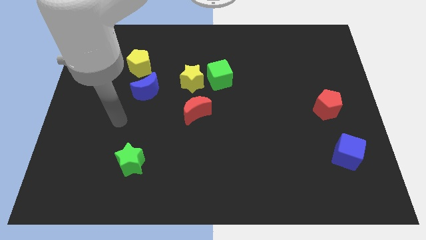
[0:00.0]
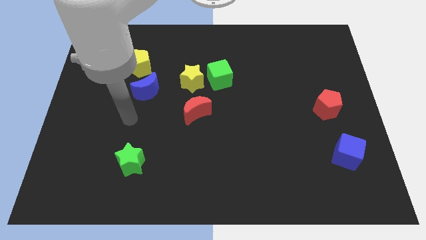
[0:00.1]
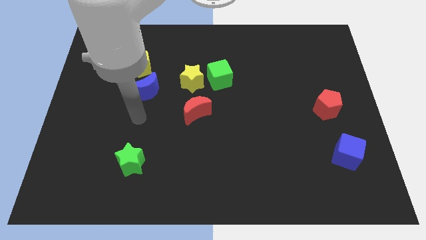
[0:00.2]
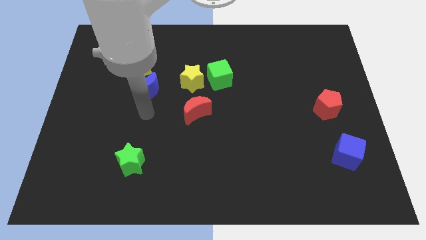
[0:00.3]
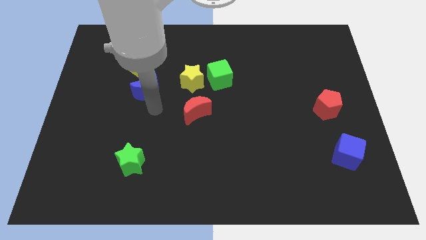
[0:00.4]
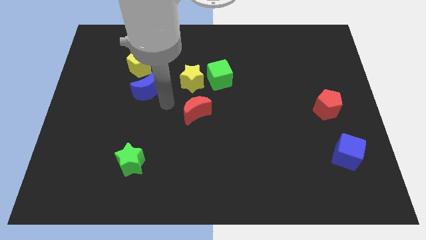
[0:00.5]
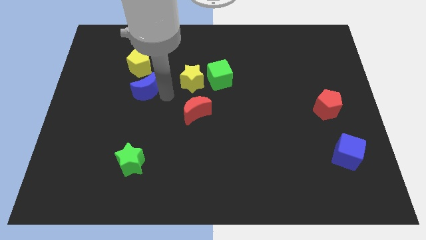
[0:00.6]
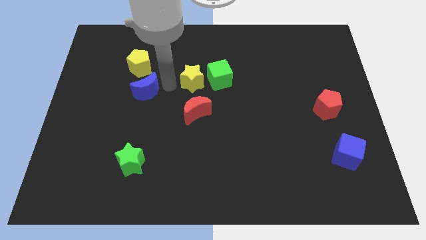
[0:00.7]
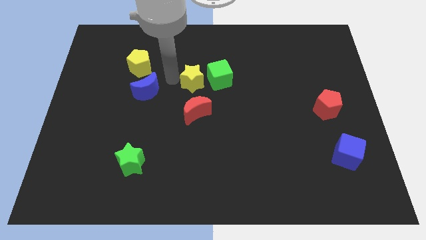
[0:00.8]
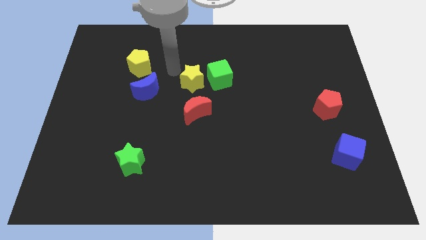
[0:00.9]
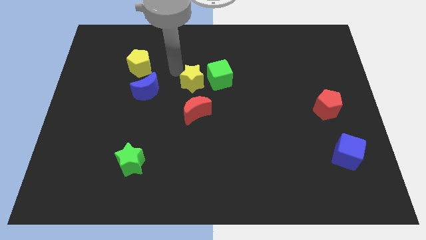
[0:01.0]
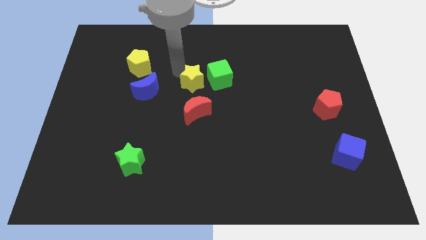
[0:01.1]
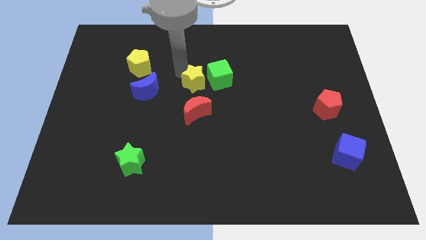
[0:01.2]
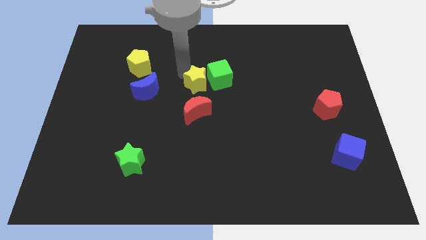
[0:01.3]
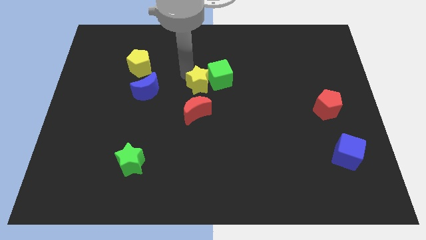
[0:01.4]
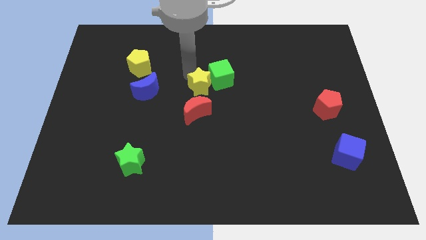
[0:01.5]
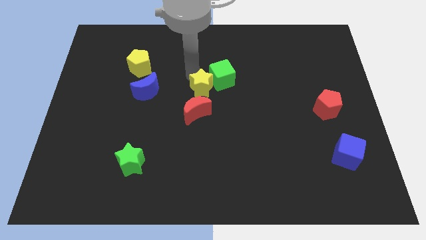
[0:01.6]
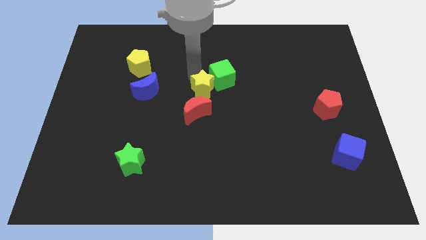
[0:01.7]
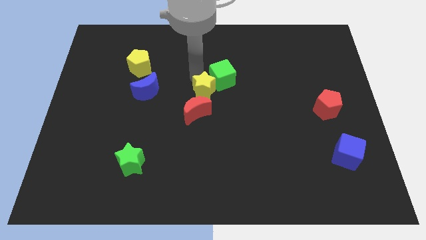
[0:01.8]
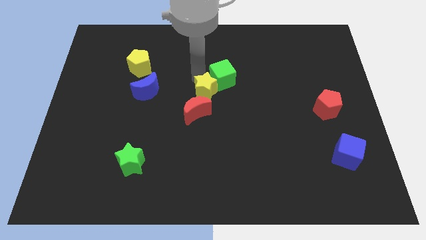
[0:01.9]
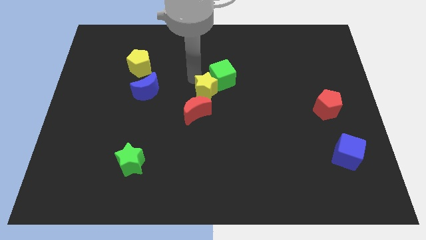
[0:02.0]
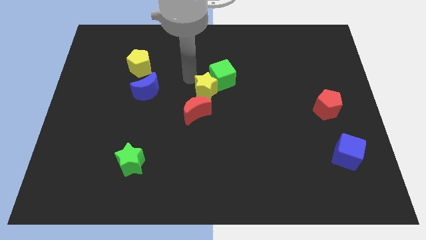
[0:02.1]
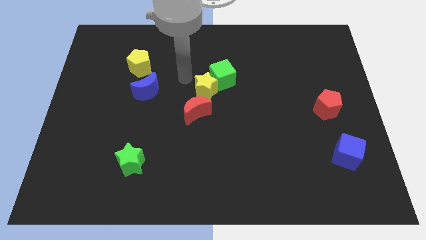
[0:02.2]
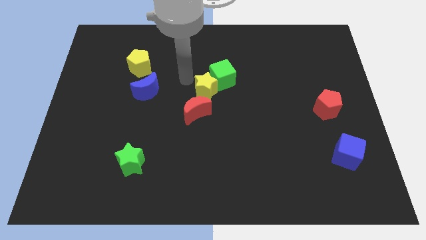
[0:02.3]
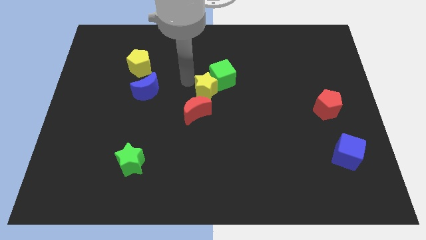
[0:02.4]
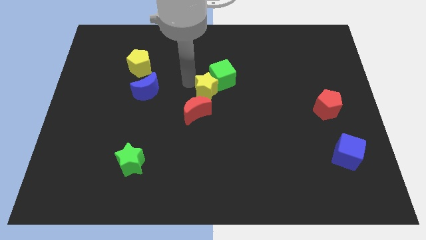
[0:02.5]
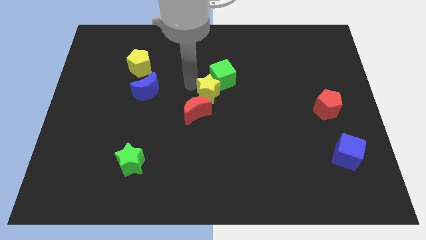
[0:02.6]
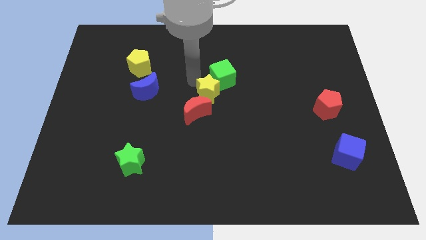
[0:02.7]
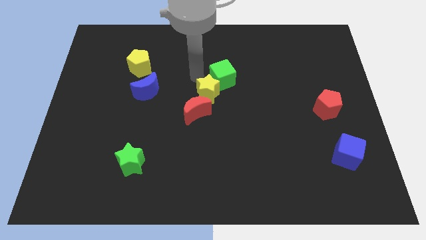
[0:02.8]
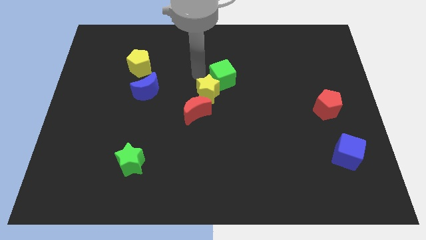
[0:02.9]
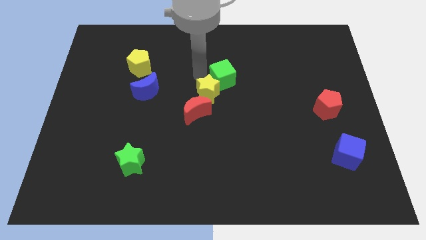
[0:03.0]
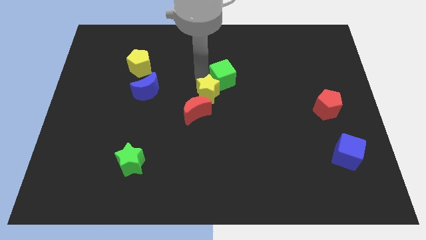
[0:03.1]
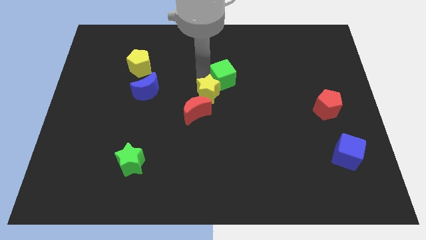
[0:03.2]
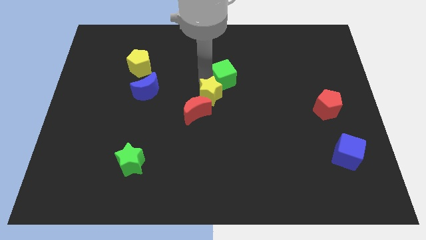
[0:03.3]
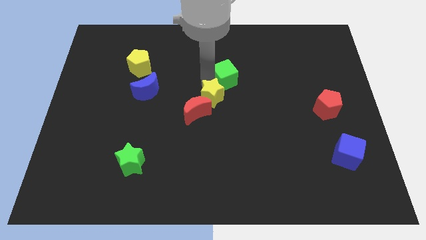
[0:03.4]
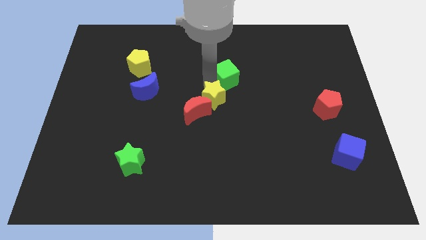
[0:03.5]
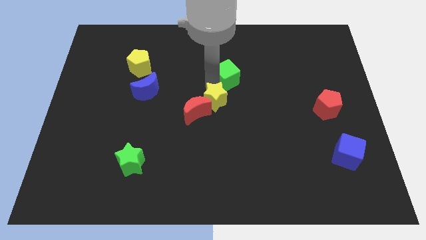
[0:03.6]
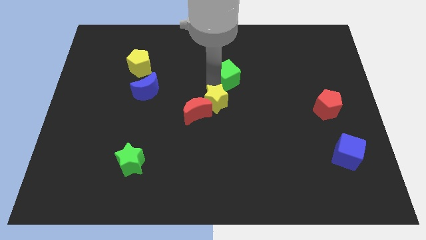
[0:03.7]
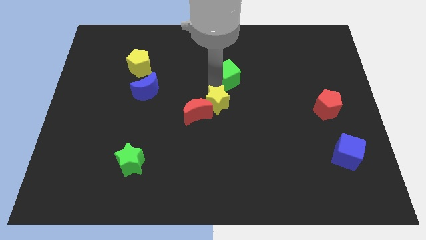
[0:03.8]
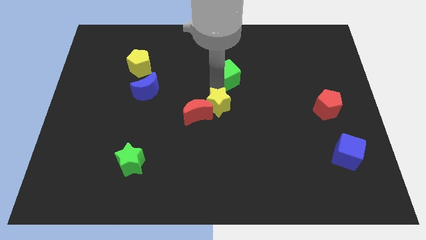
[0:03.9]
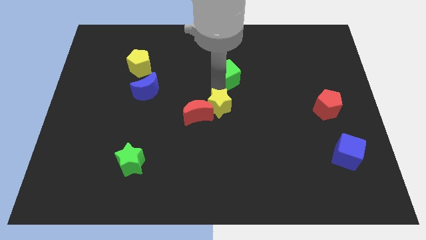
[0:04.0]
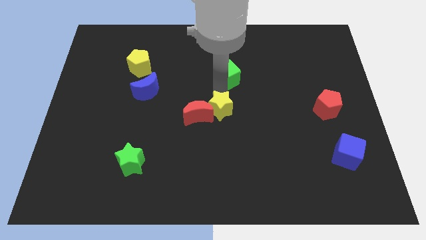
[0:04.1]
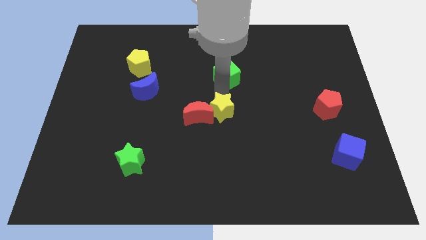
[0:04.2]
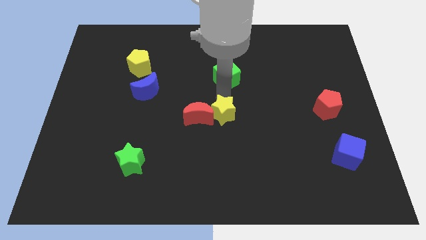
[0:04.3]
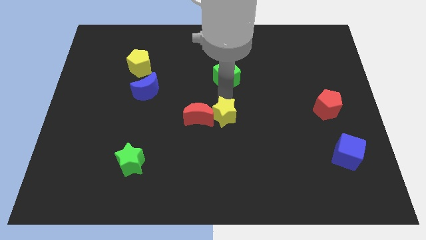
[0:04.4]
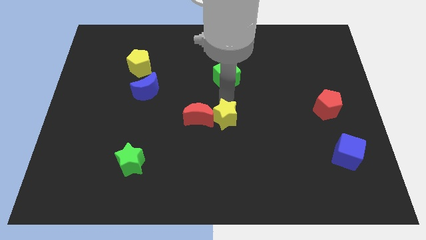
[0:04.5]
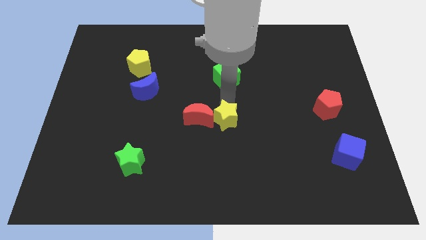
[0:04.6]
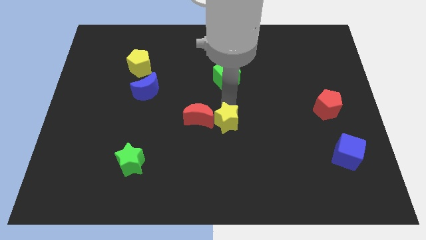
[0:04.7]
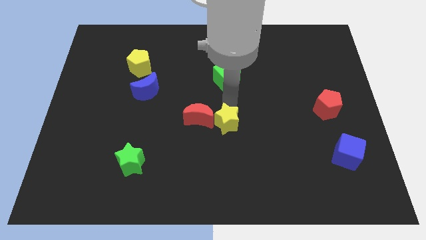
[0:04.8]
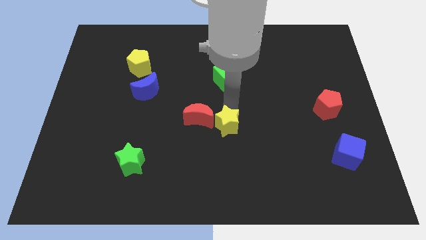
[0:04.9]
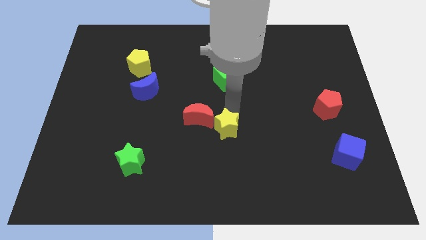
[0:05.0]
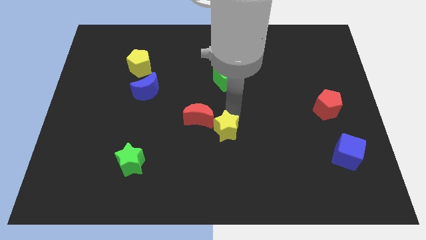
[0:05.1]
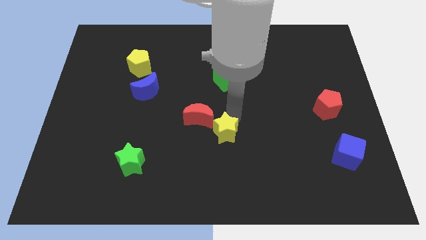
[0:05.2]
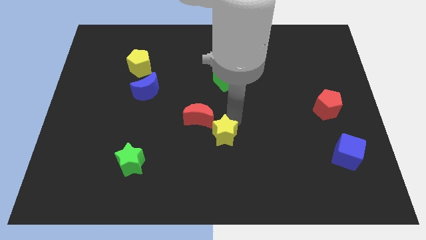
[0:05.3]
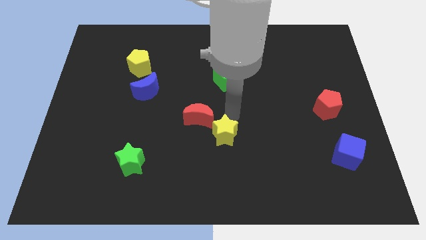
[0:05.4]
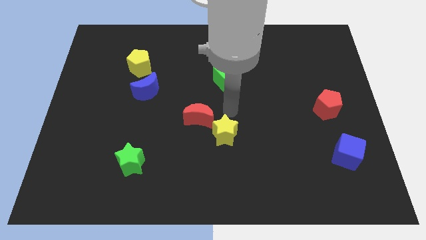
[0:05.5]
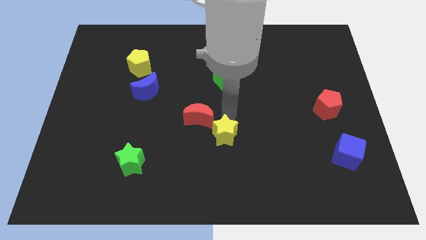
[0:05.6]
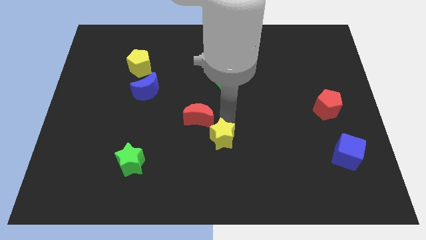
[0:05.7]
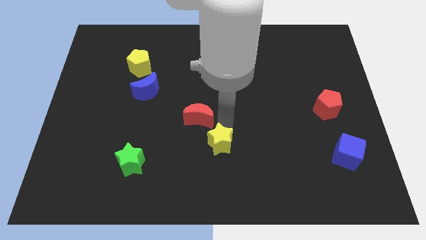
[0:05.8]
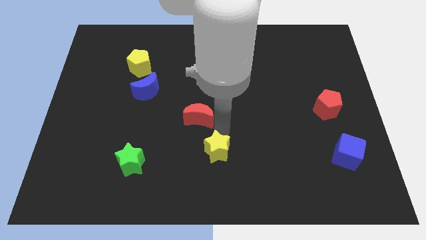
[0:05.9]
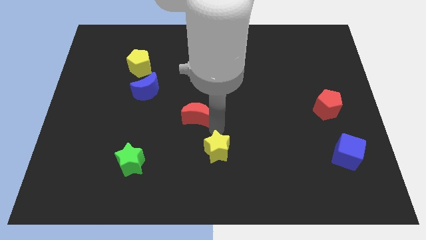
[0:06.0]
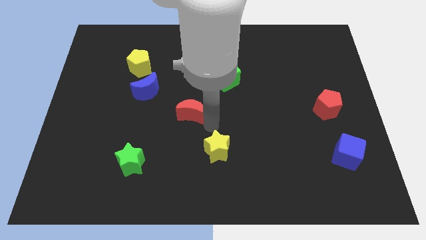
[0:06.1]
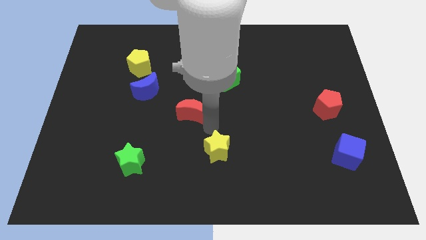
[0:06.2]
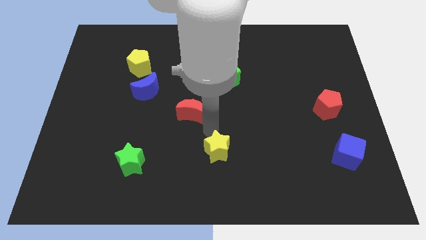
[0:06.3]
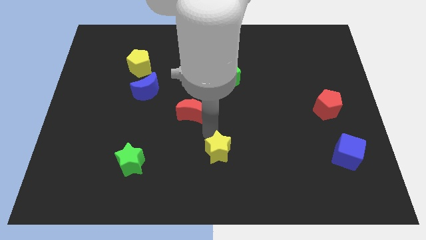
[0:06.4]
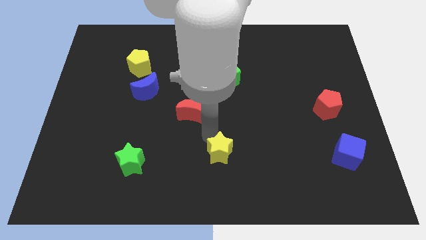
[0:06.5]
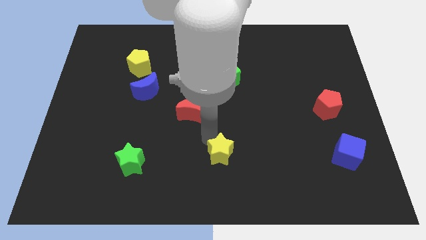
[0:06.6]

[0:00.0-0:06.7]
put the yellow star to the bottom
